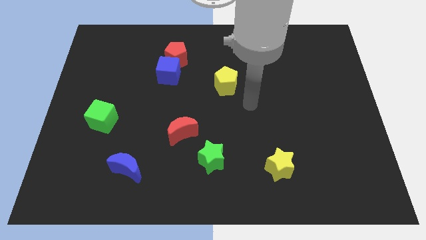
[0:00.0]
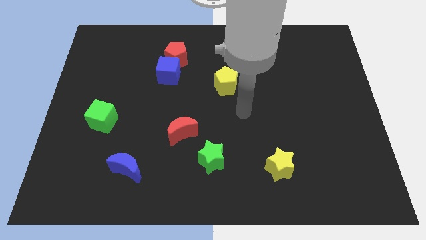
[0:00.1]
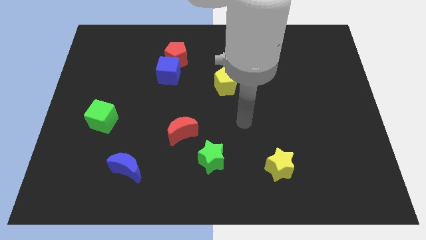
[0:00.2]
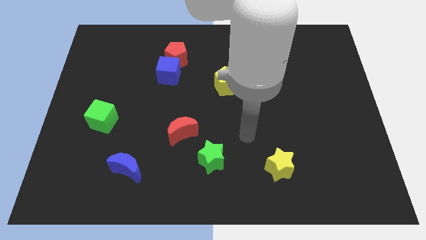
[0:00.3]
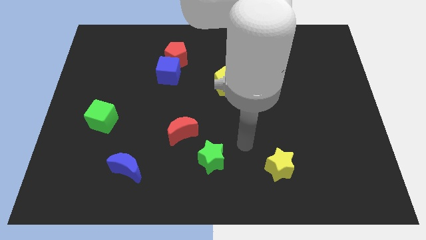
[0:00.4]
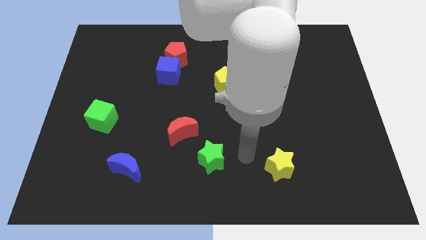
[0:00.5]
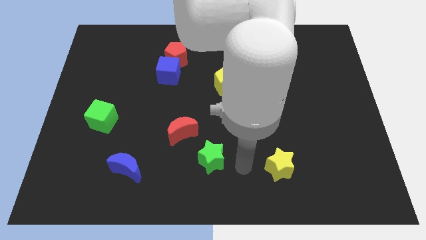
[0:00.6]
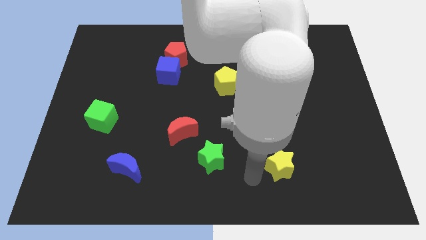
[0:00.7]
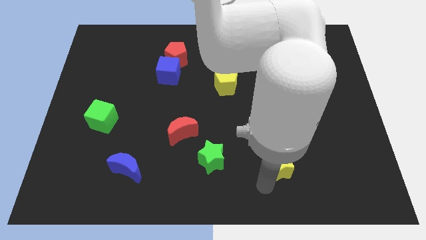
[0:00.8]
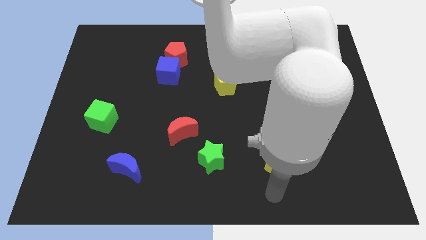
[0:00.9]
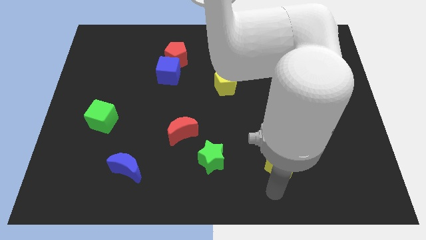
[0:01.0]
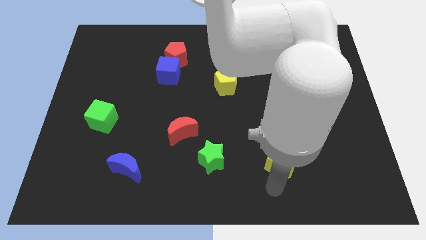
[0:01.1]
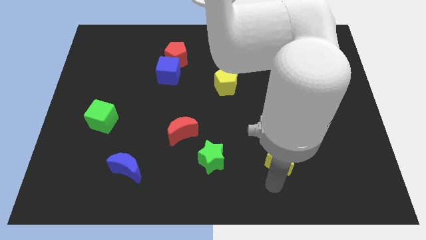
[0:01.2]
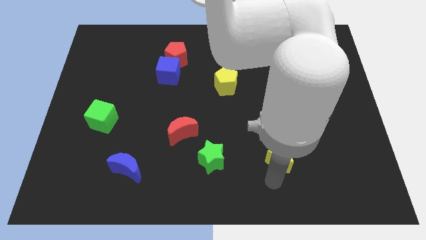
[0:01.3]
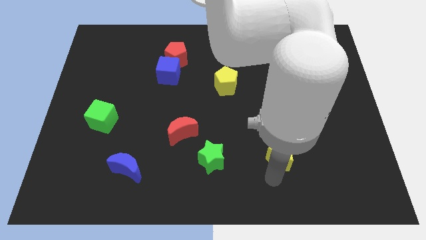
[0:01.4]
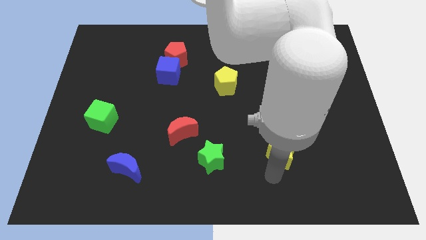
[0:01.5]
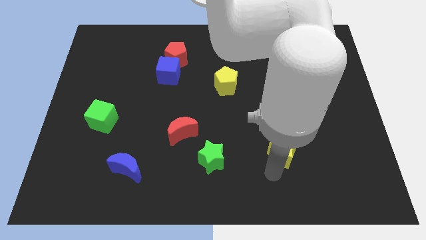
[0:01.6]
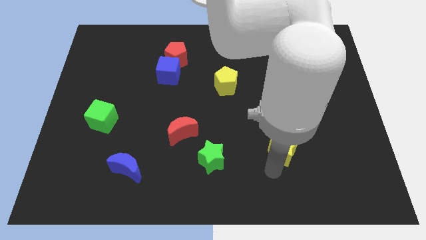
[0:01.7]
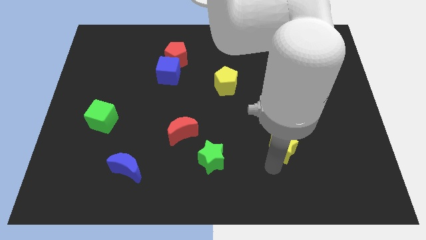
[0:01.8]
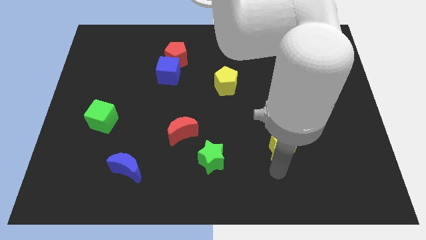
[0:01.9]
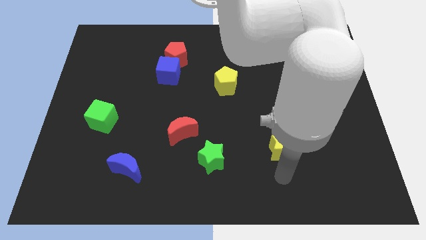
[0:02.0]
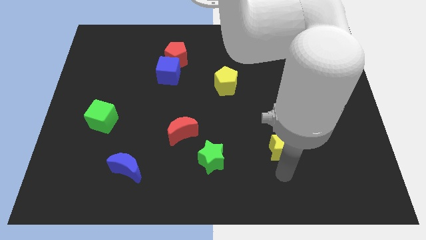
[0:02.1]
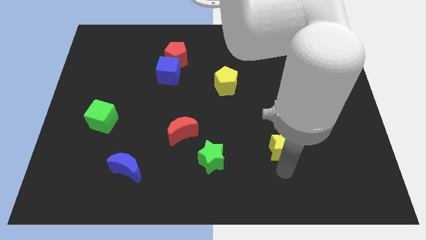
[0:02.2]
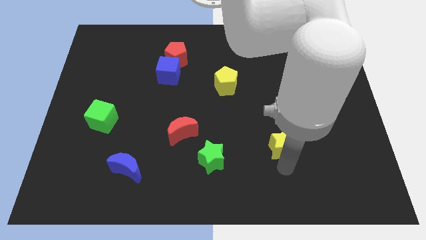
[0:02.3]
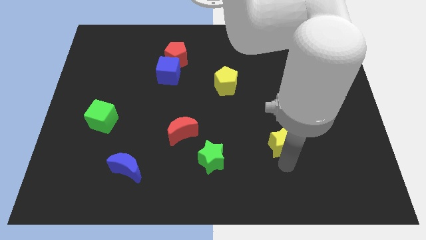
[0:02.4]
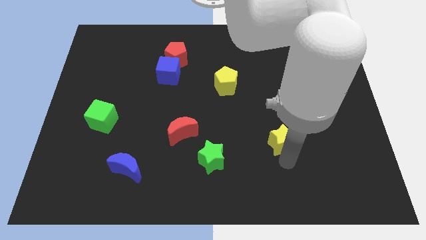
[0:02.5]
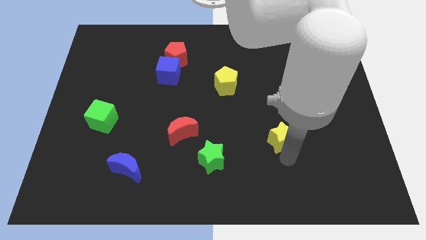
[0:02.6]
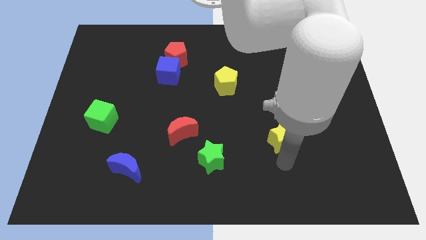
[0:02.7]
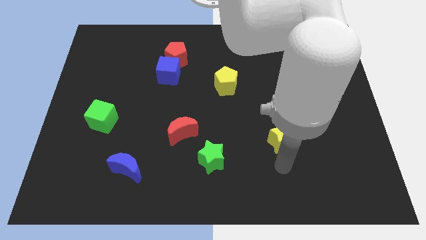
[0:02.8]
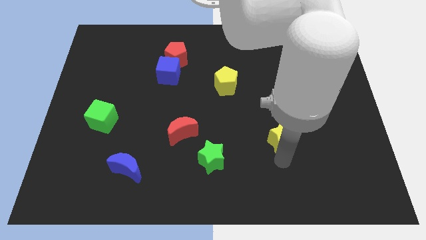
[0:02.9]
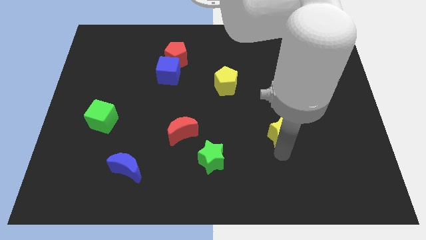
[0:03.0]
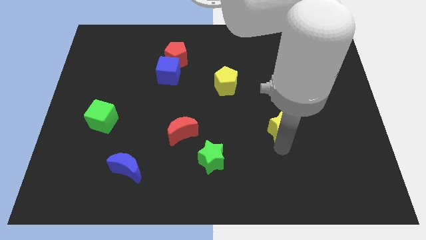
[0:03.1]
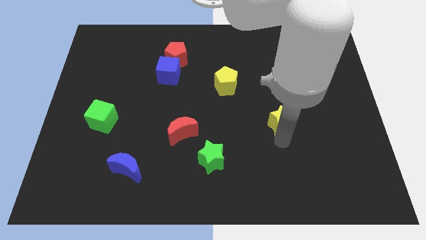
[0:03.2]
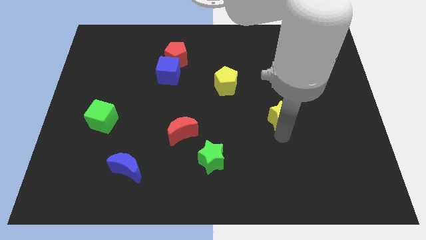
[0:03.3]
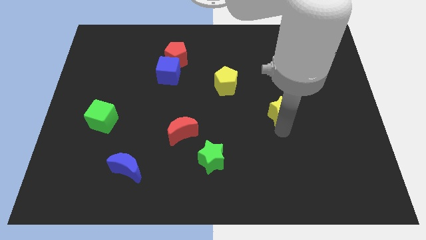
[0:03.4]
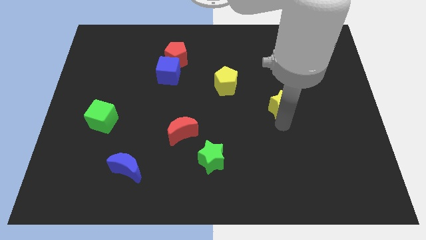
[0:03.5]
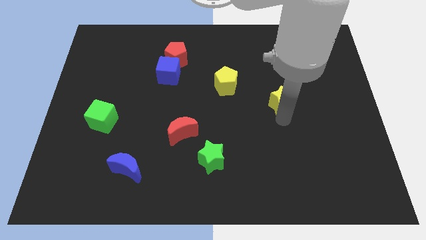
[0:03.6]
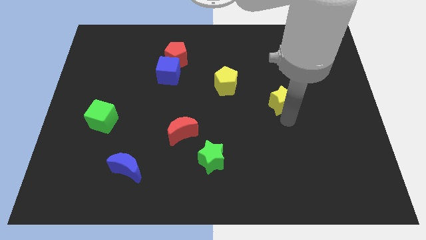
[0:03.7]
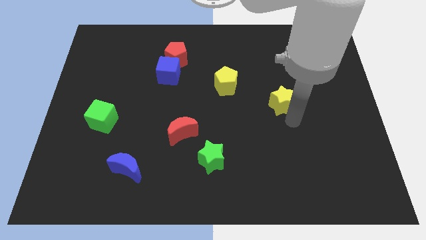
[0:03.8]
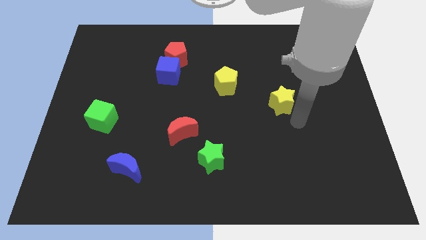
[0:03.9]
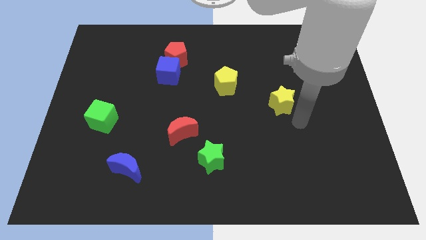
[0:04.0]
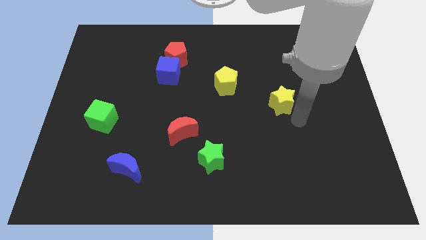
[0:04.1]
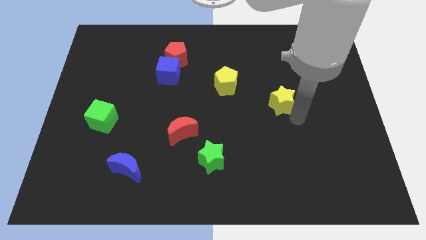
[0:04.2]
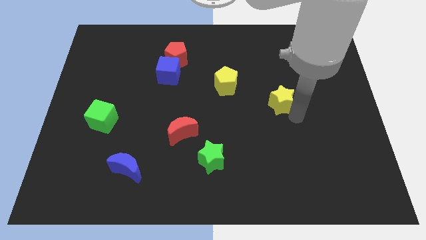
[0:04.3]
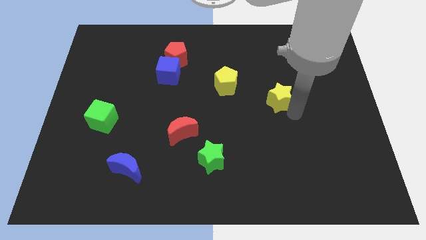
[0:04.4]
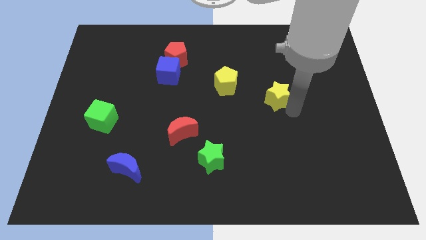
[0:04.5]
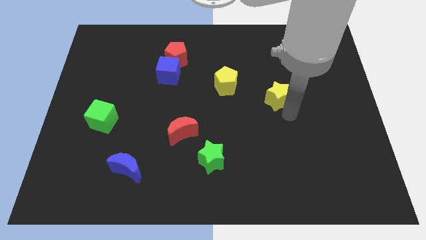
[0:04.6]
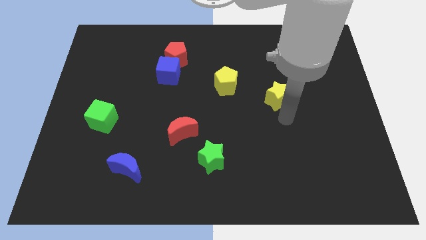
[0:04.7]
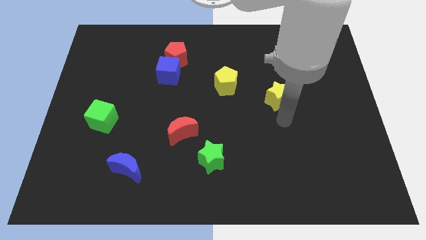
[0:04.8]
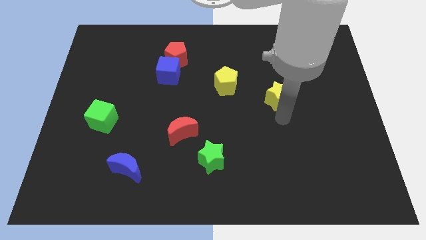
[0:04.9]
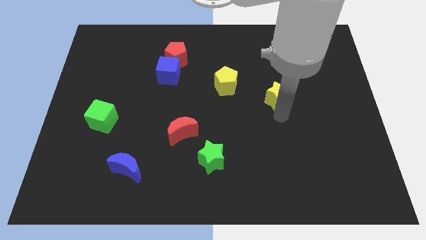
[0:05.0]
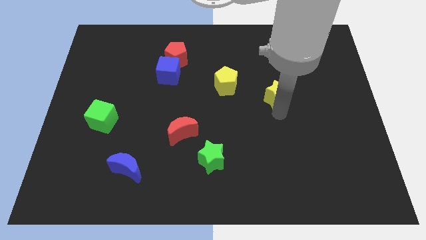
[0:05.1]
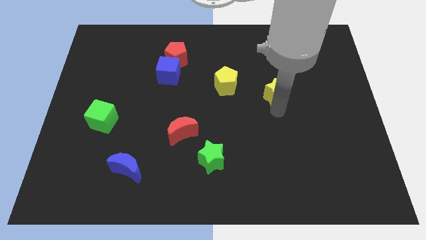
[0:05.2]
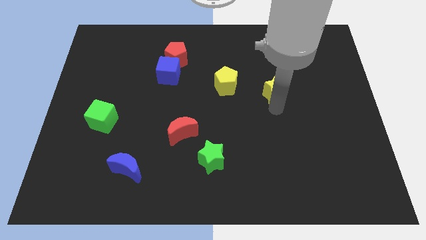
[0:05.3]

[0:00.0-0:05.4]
slide the yellow star up

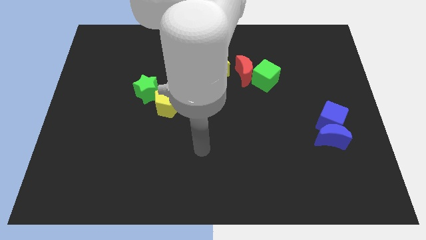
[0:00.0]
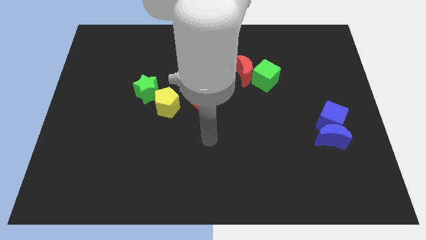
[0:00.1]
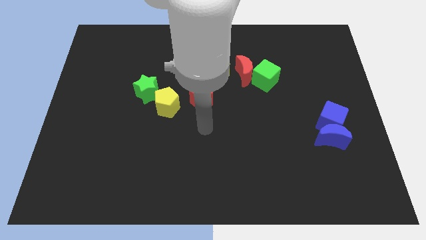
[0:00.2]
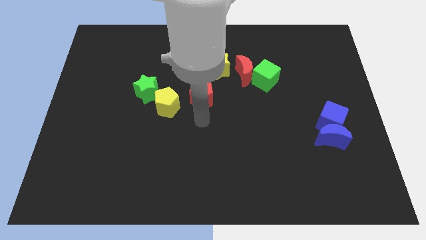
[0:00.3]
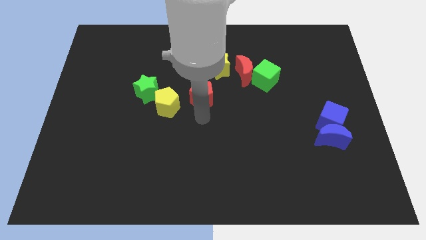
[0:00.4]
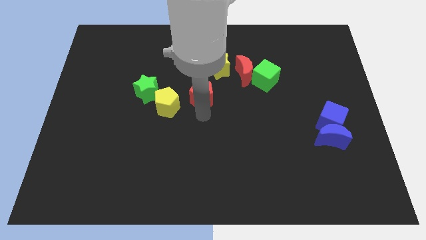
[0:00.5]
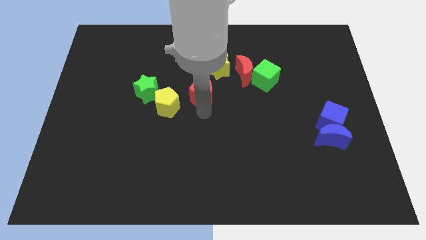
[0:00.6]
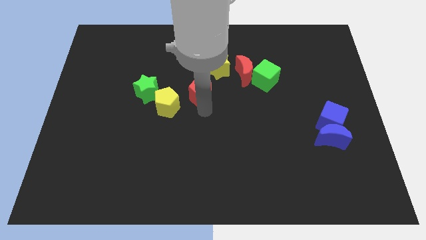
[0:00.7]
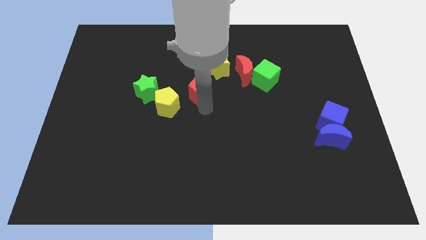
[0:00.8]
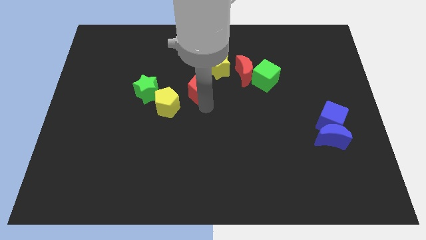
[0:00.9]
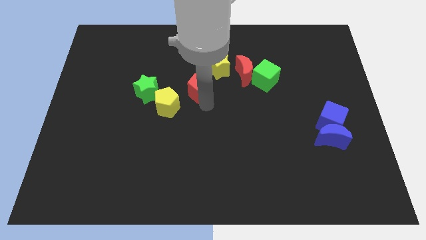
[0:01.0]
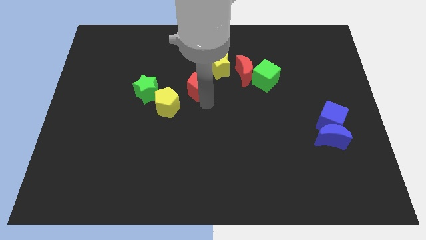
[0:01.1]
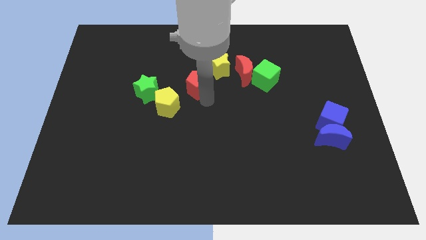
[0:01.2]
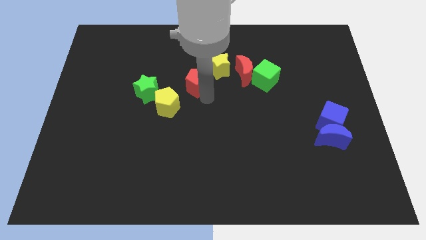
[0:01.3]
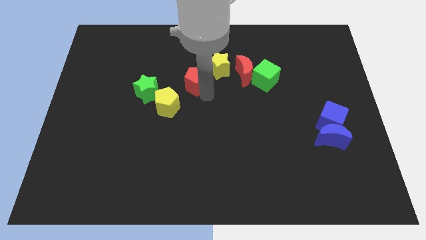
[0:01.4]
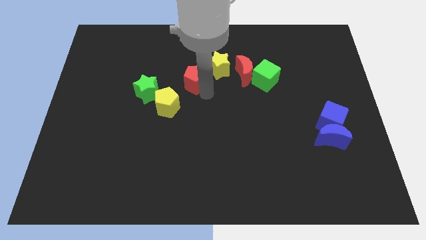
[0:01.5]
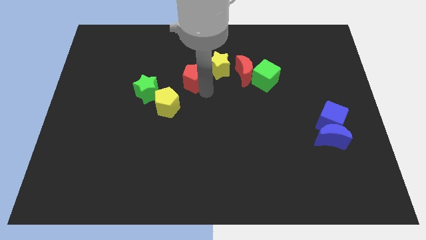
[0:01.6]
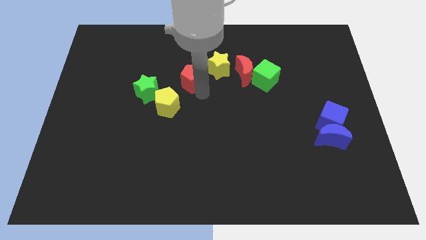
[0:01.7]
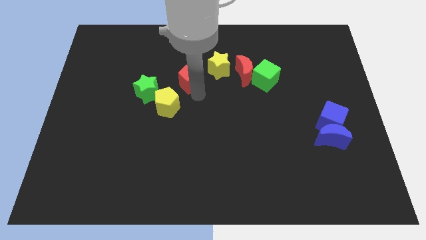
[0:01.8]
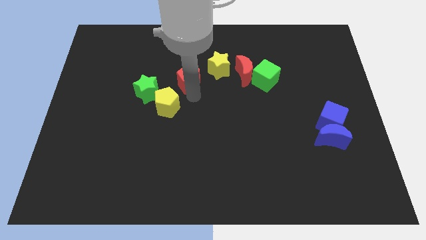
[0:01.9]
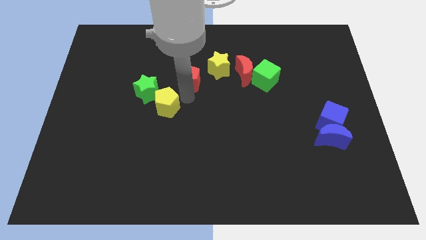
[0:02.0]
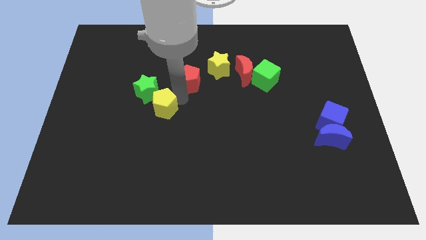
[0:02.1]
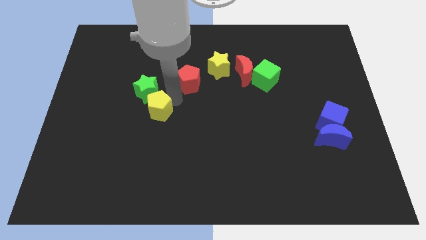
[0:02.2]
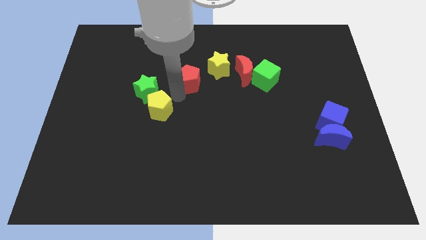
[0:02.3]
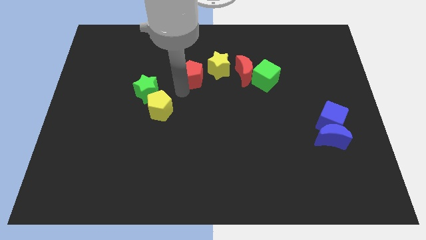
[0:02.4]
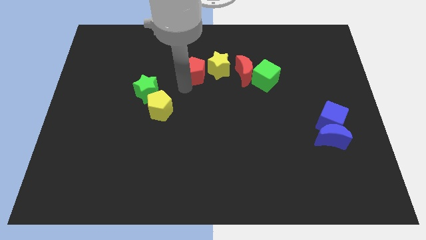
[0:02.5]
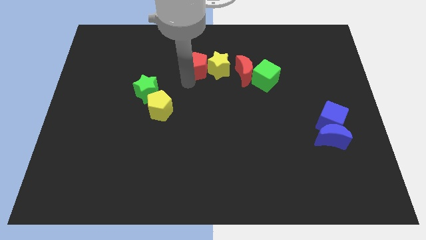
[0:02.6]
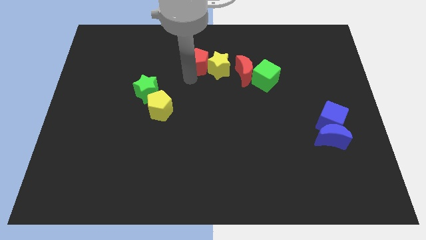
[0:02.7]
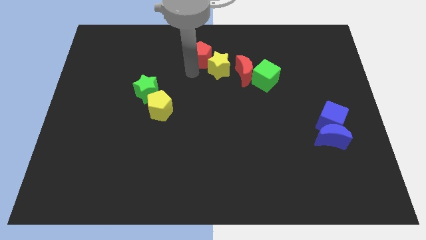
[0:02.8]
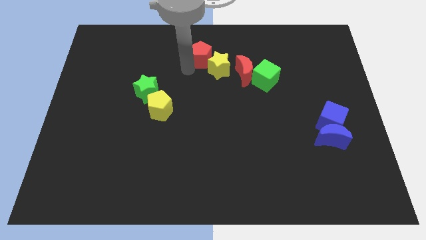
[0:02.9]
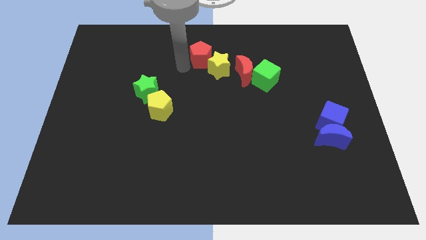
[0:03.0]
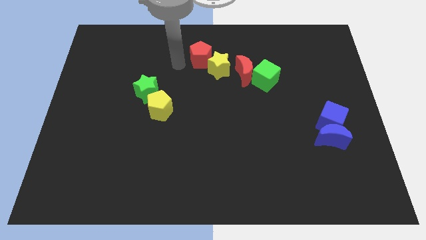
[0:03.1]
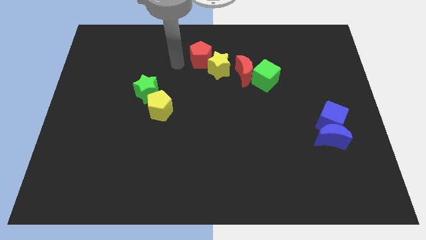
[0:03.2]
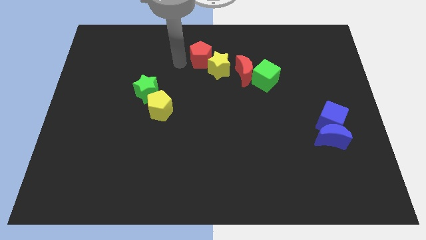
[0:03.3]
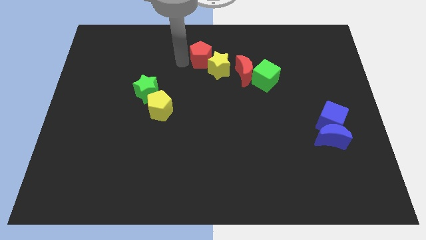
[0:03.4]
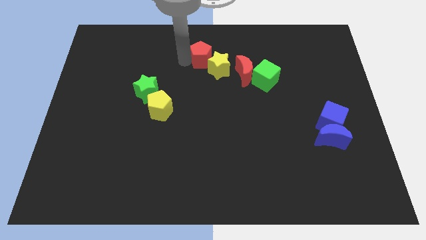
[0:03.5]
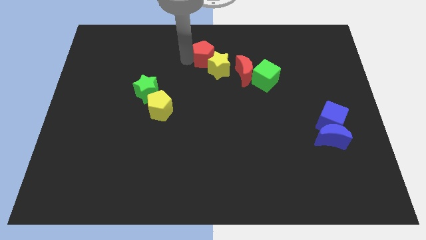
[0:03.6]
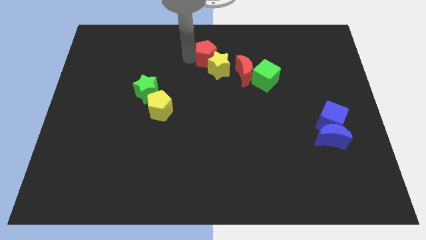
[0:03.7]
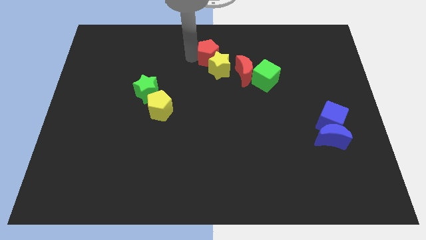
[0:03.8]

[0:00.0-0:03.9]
slightly push the red pentagon up and right diagonally
